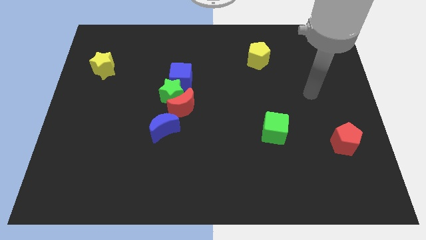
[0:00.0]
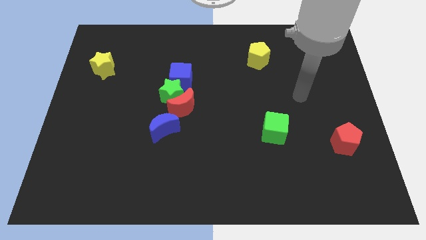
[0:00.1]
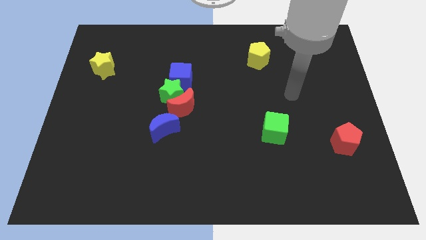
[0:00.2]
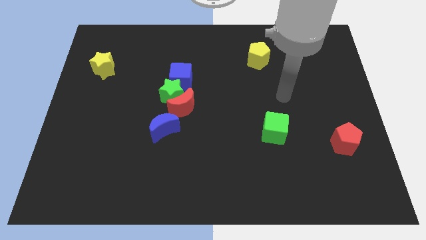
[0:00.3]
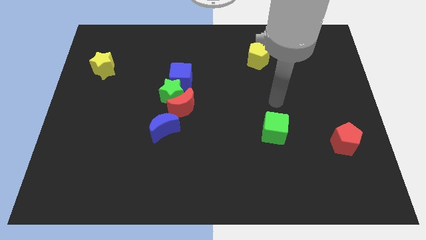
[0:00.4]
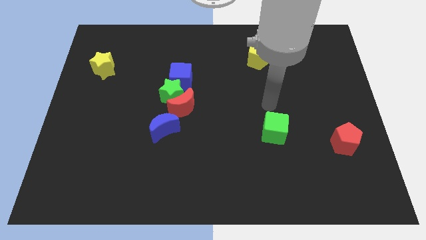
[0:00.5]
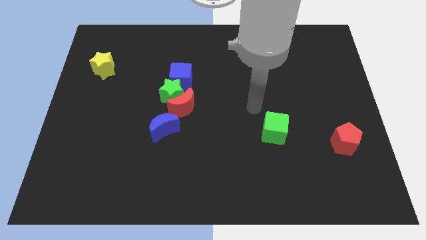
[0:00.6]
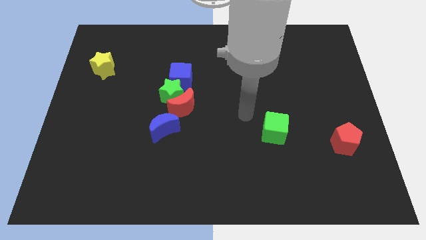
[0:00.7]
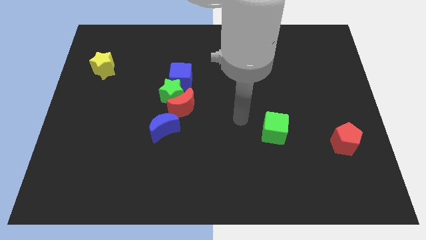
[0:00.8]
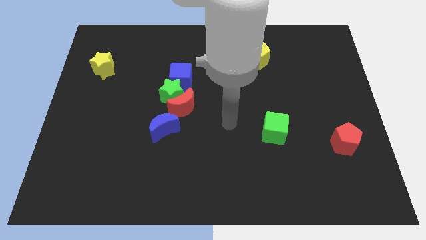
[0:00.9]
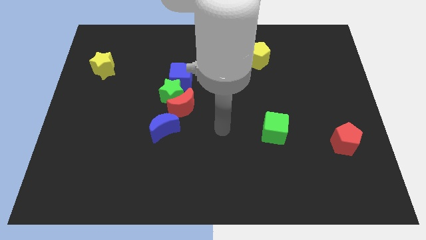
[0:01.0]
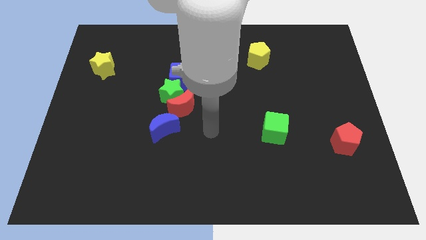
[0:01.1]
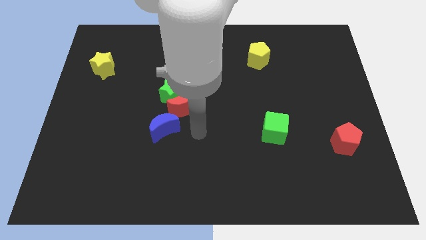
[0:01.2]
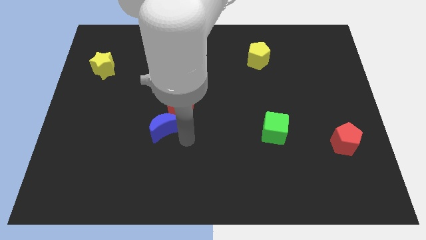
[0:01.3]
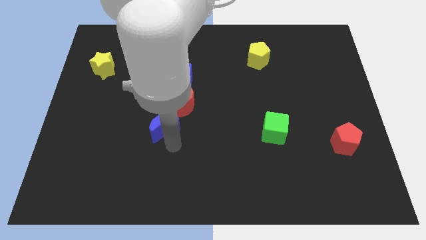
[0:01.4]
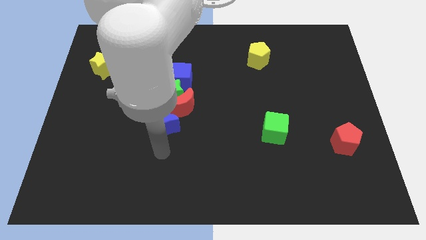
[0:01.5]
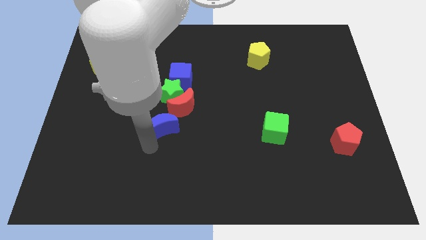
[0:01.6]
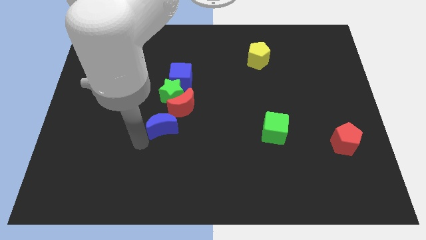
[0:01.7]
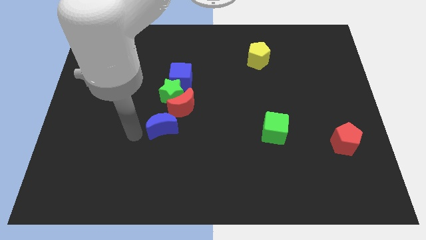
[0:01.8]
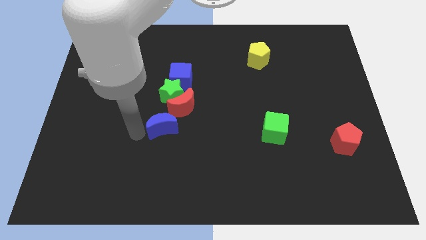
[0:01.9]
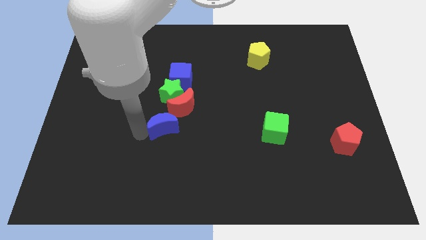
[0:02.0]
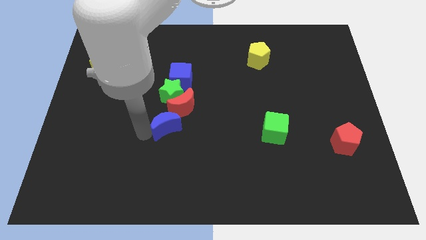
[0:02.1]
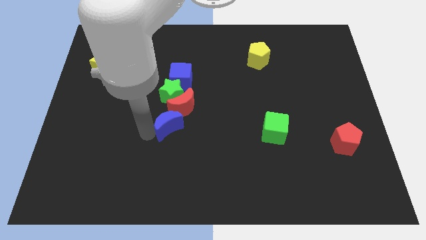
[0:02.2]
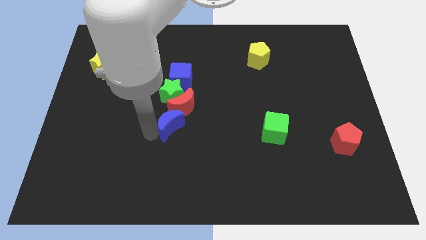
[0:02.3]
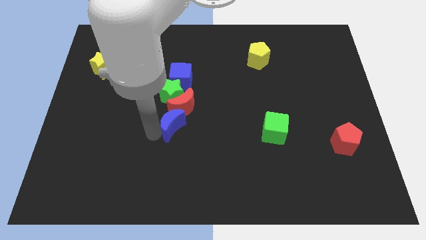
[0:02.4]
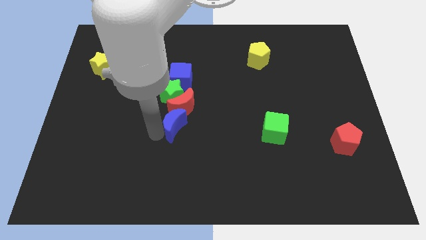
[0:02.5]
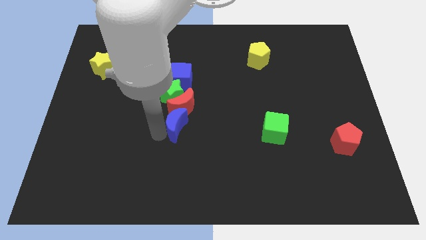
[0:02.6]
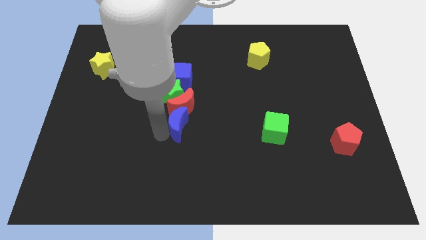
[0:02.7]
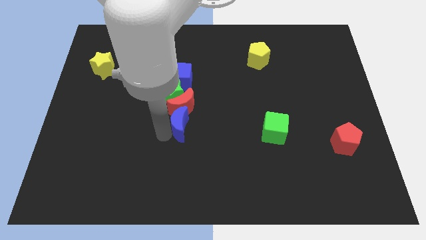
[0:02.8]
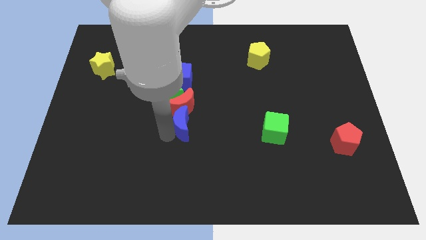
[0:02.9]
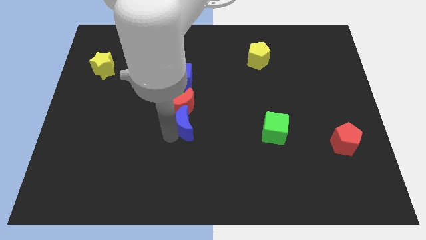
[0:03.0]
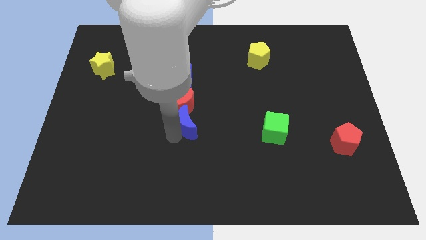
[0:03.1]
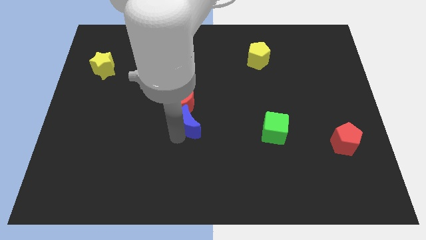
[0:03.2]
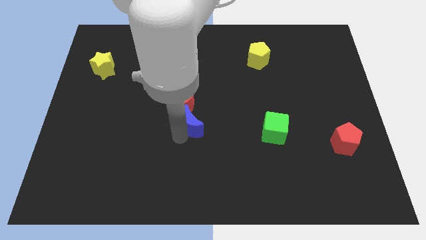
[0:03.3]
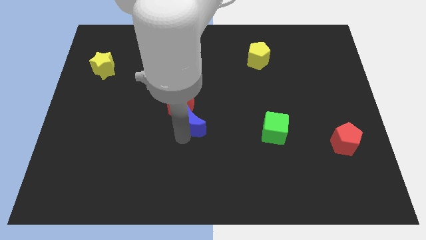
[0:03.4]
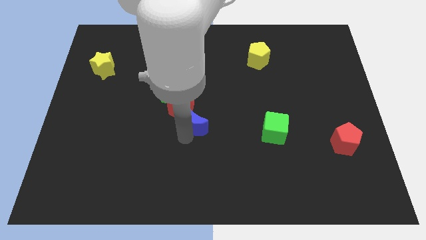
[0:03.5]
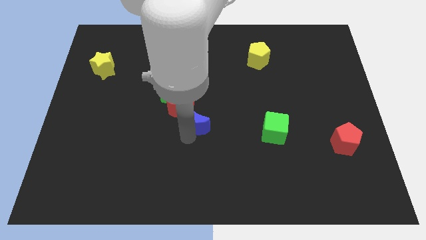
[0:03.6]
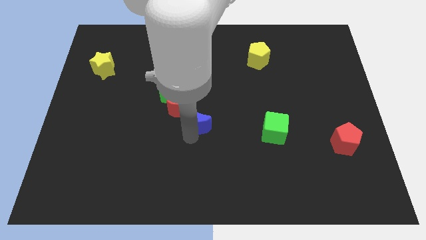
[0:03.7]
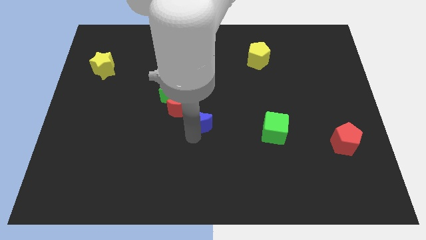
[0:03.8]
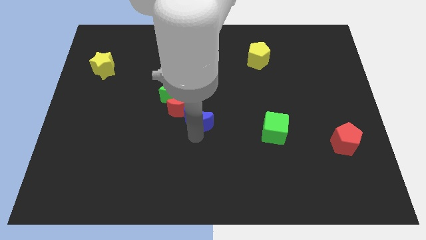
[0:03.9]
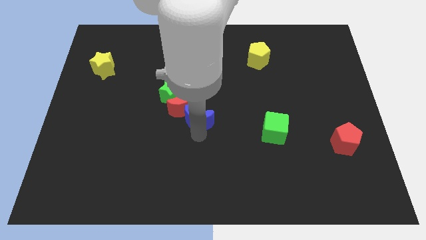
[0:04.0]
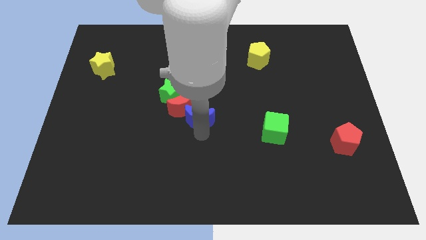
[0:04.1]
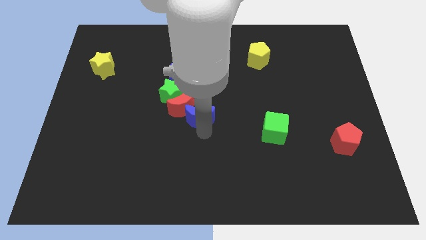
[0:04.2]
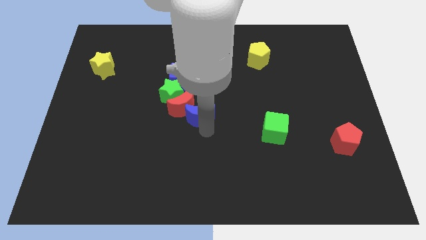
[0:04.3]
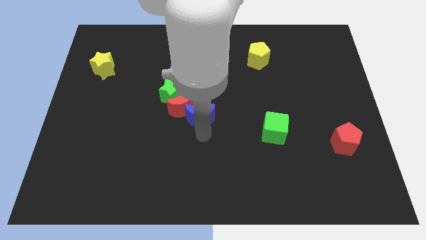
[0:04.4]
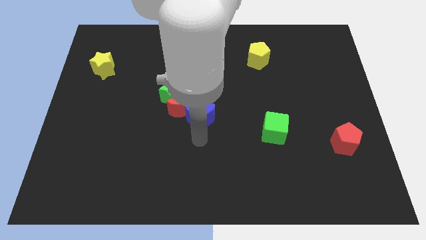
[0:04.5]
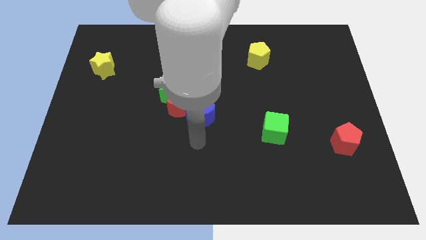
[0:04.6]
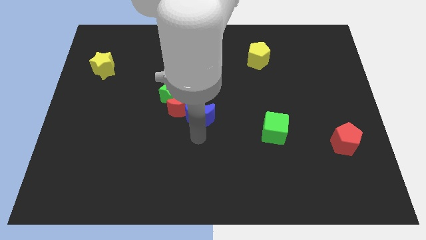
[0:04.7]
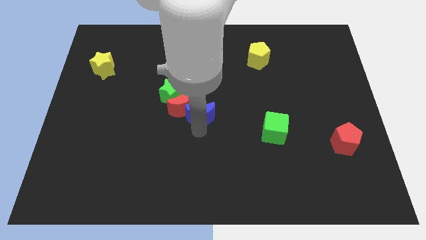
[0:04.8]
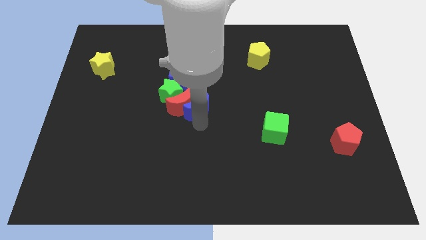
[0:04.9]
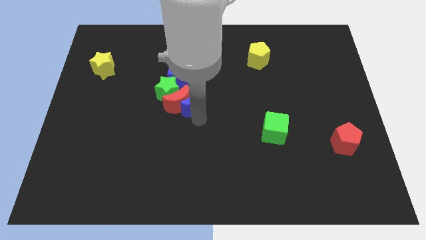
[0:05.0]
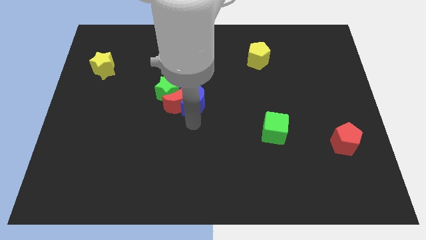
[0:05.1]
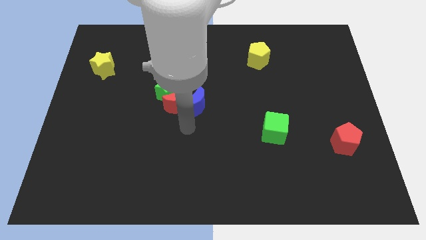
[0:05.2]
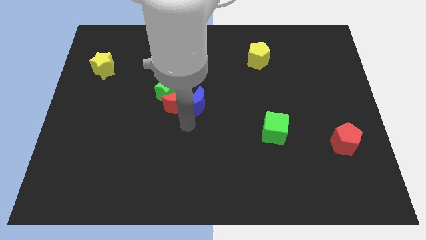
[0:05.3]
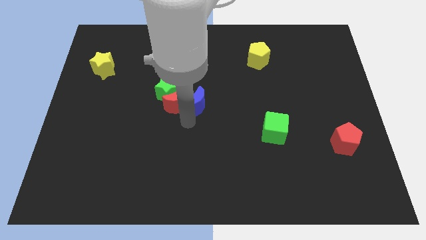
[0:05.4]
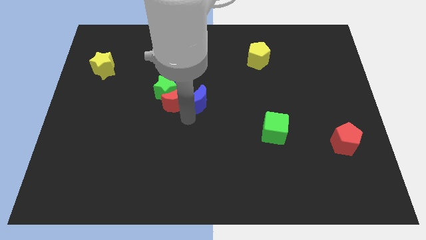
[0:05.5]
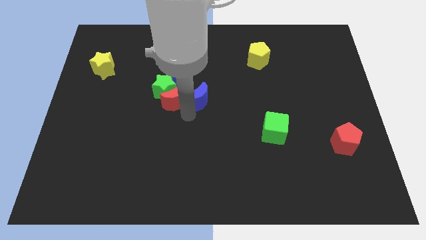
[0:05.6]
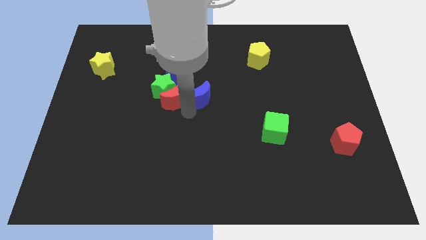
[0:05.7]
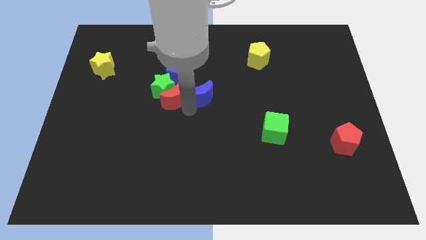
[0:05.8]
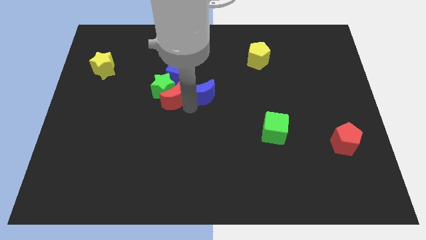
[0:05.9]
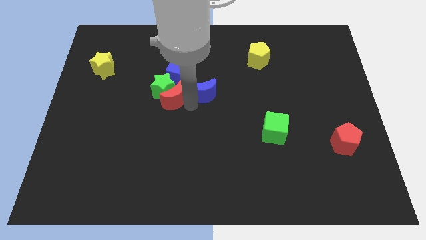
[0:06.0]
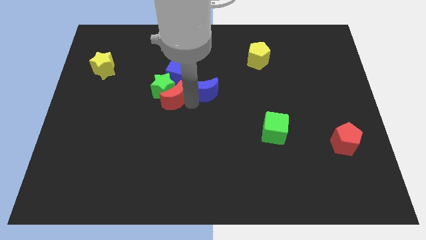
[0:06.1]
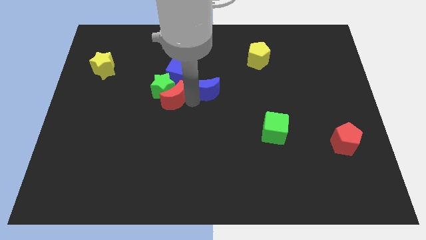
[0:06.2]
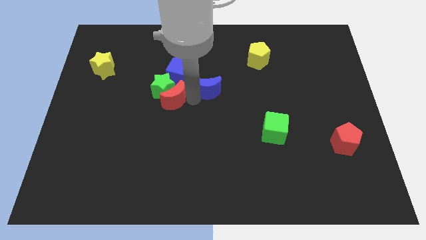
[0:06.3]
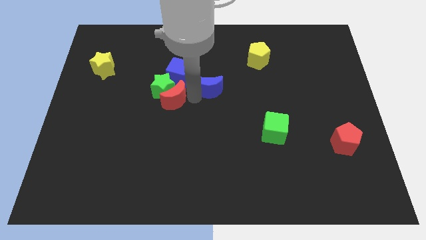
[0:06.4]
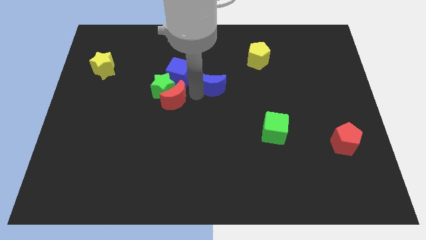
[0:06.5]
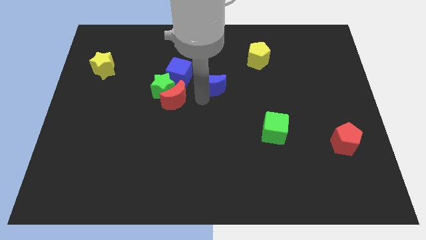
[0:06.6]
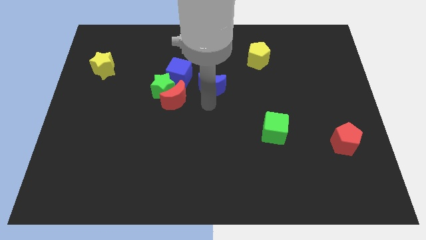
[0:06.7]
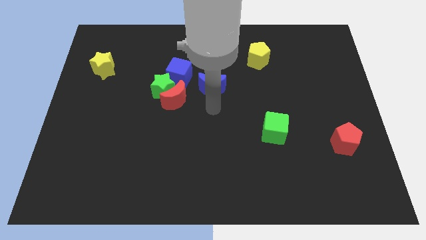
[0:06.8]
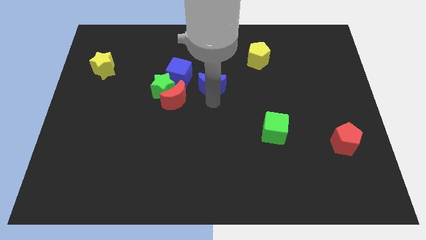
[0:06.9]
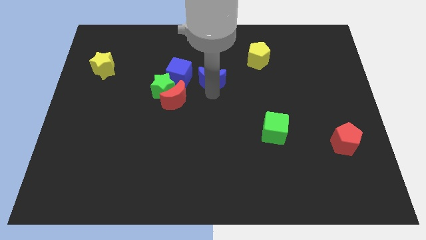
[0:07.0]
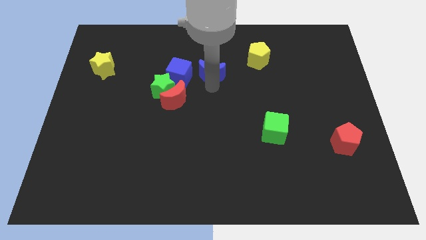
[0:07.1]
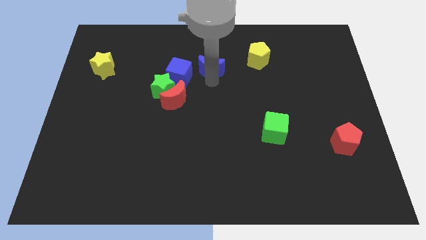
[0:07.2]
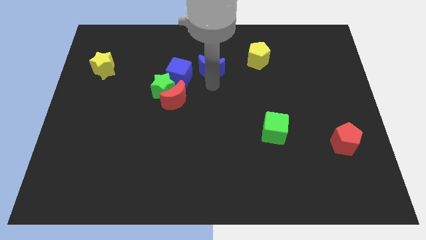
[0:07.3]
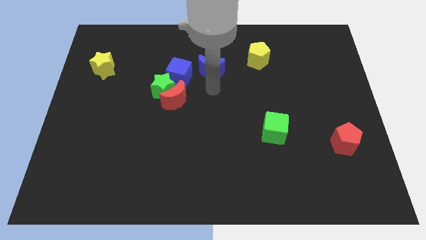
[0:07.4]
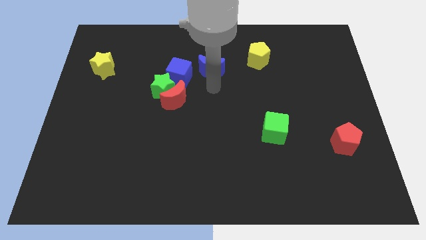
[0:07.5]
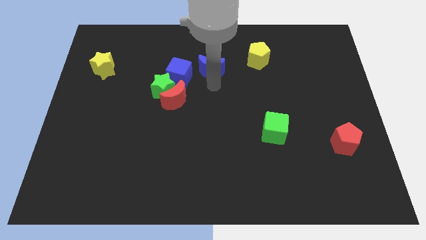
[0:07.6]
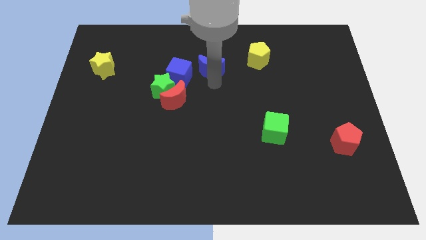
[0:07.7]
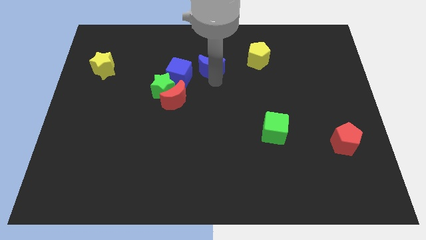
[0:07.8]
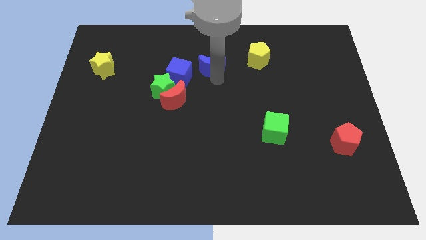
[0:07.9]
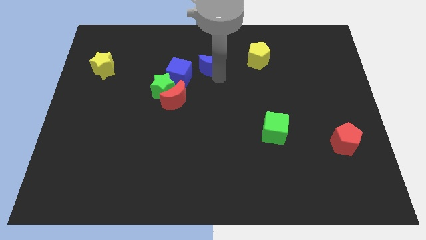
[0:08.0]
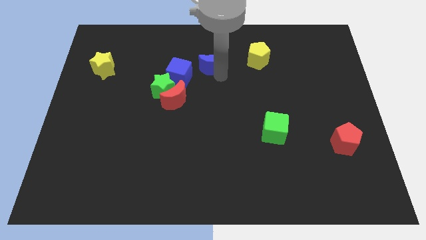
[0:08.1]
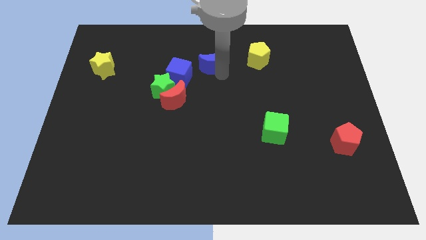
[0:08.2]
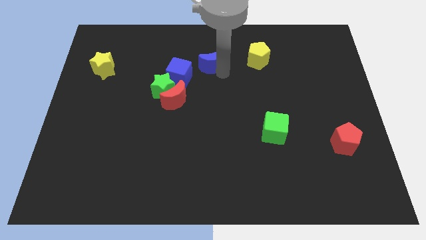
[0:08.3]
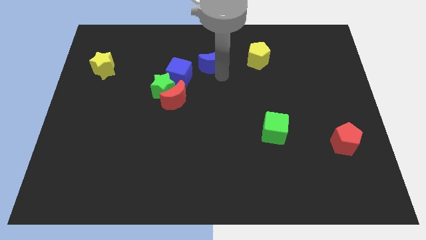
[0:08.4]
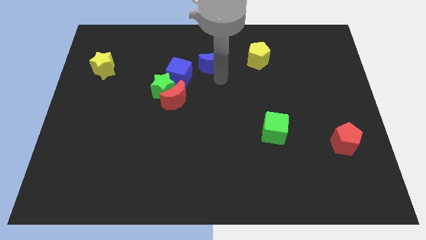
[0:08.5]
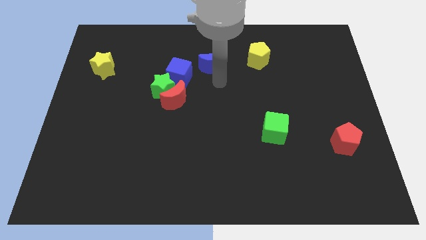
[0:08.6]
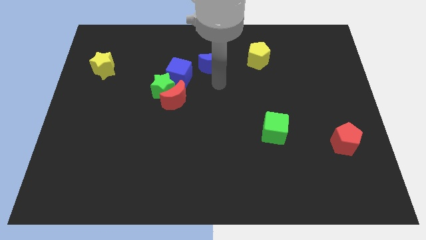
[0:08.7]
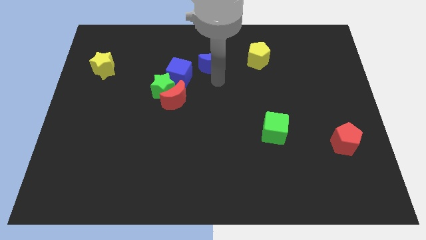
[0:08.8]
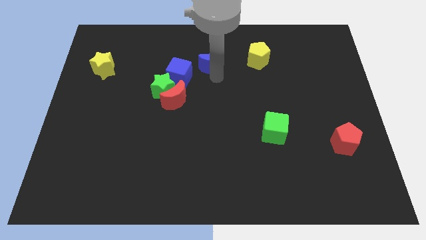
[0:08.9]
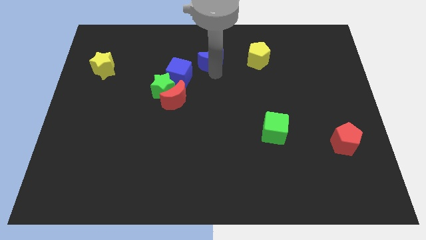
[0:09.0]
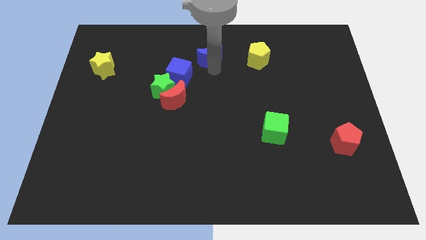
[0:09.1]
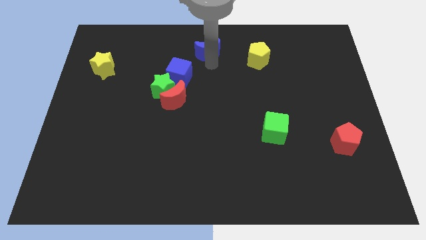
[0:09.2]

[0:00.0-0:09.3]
push the blue moon to the towards your base
